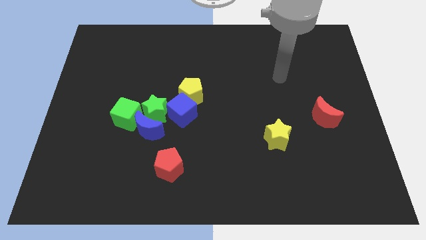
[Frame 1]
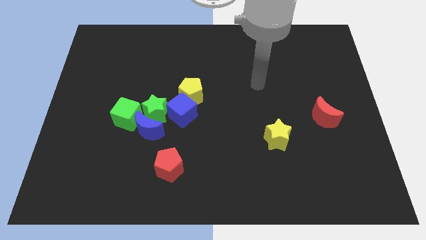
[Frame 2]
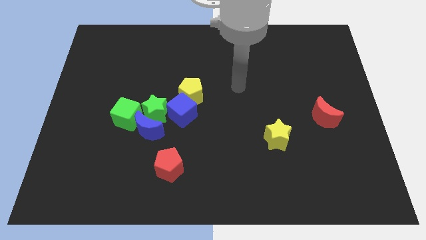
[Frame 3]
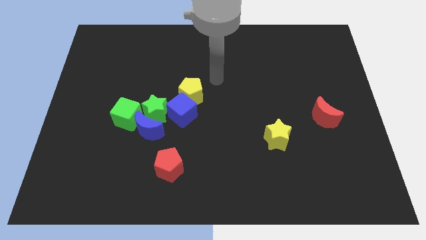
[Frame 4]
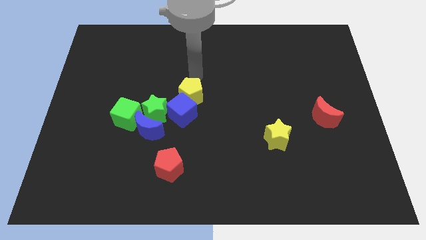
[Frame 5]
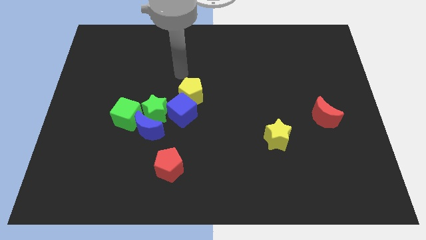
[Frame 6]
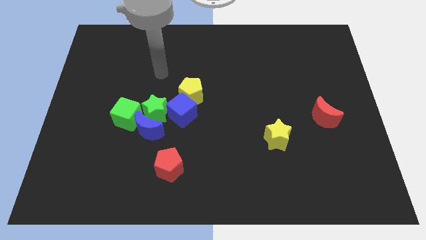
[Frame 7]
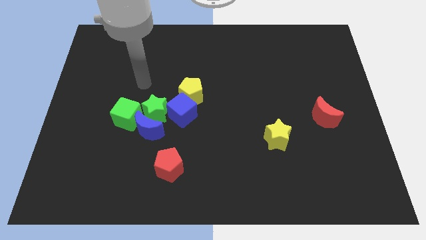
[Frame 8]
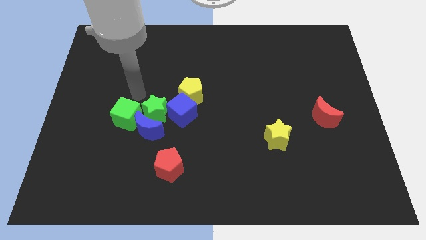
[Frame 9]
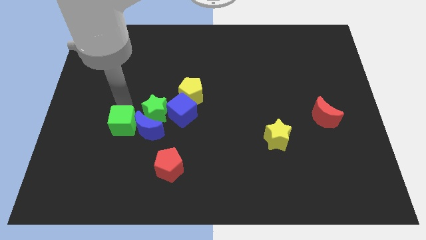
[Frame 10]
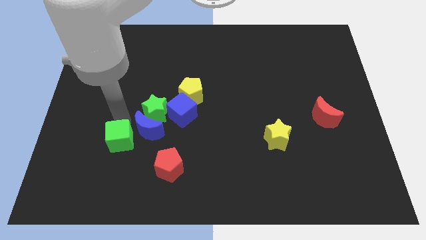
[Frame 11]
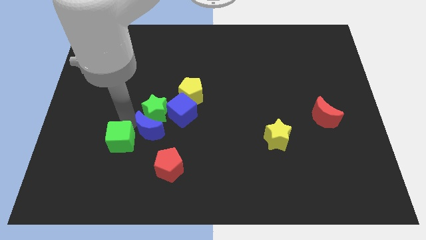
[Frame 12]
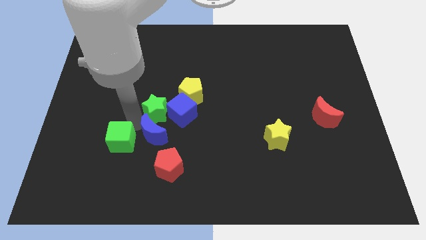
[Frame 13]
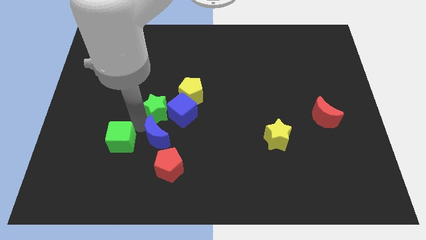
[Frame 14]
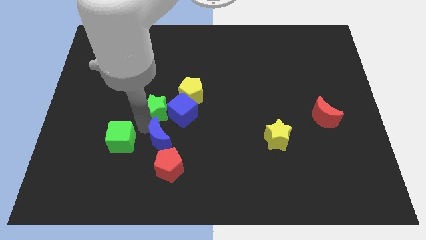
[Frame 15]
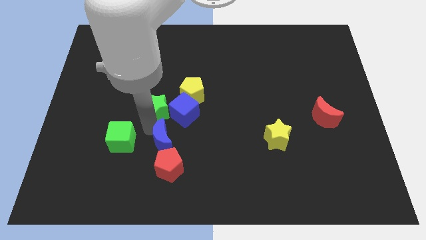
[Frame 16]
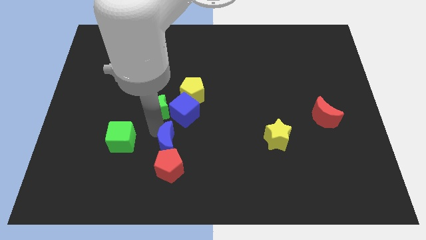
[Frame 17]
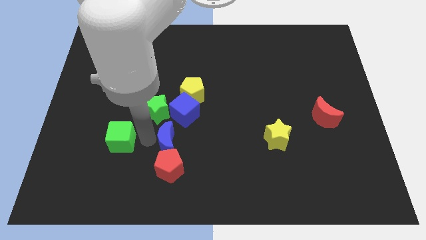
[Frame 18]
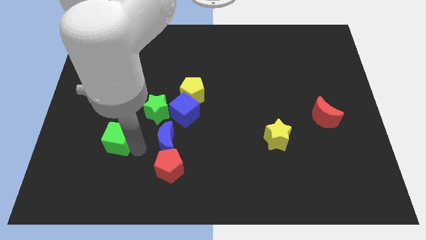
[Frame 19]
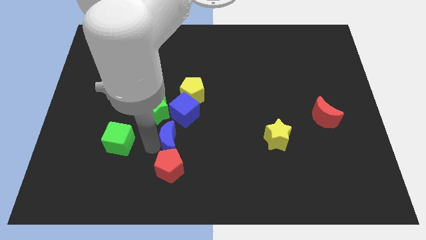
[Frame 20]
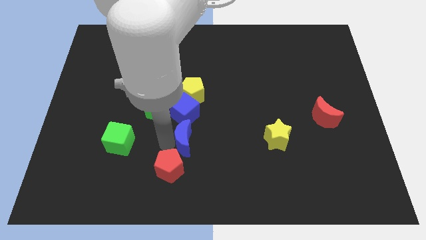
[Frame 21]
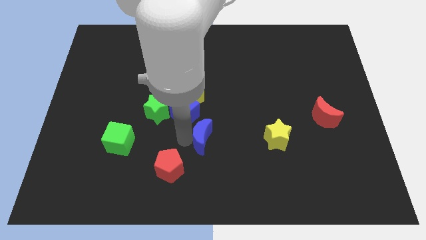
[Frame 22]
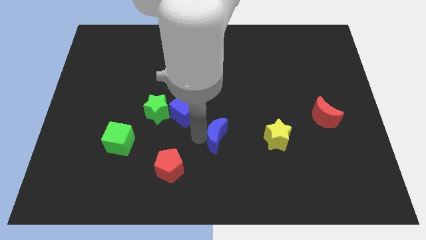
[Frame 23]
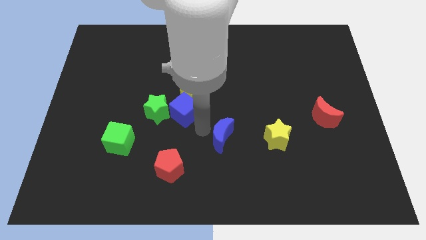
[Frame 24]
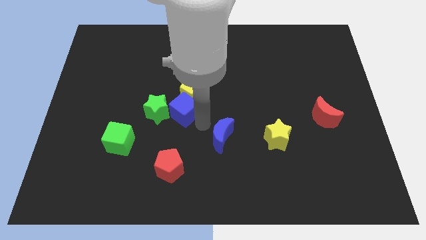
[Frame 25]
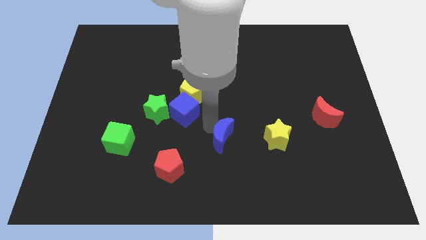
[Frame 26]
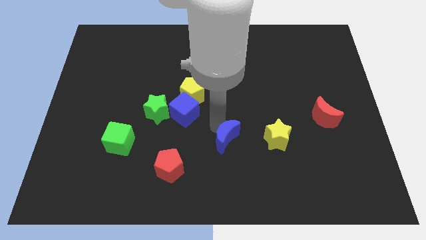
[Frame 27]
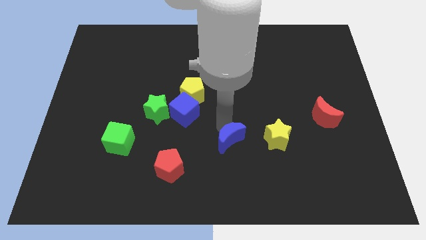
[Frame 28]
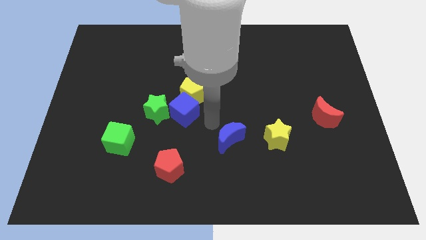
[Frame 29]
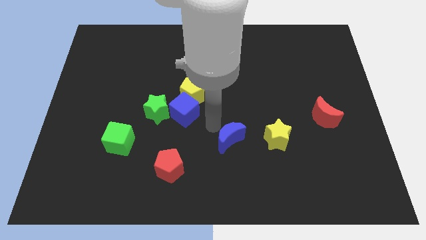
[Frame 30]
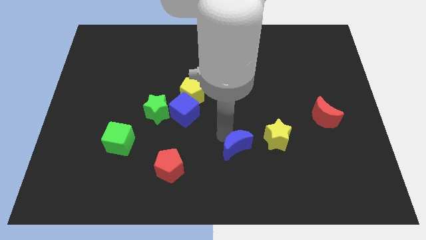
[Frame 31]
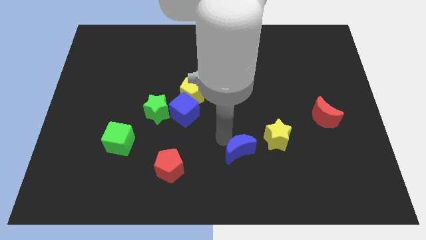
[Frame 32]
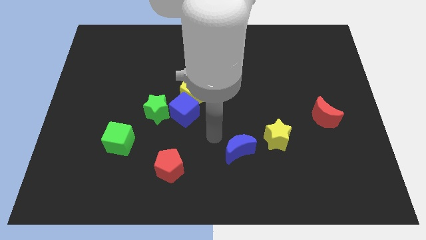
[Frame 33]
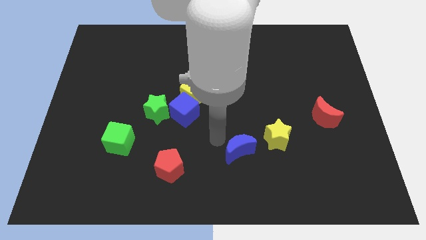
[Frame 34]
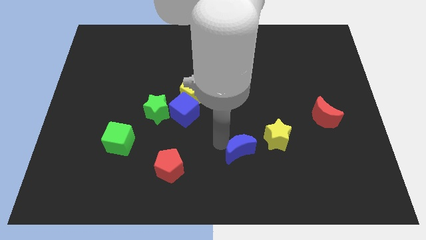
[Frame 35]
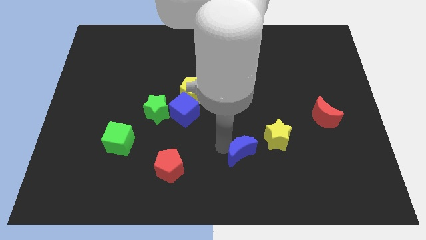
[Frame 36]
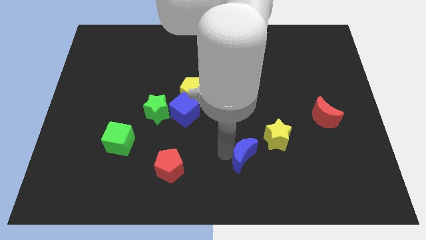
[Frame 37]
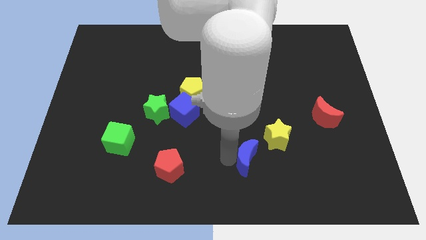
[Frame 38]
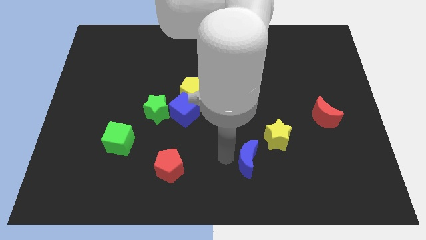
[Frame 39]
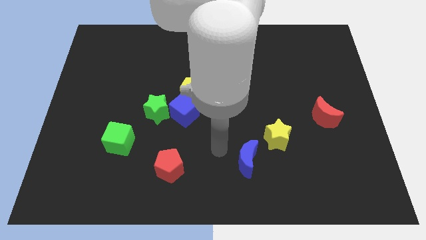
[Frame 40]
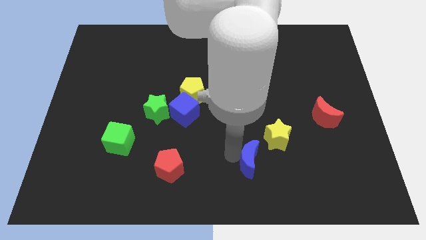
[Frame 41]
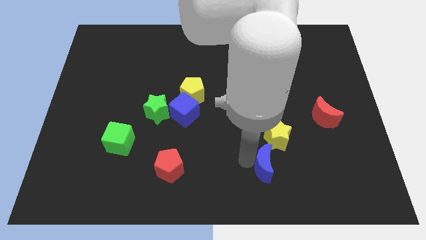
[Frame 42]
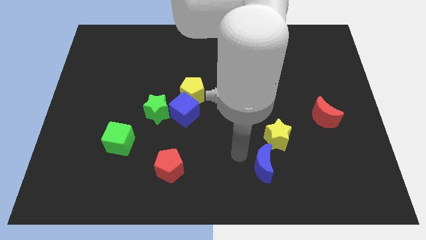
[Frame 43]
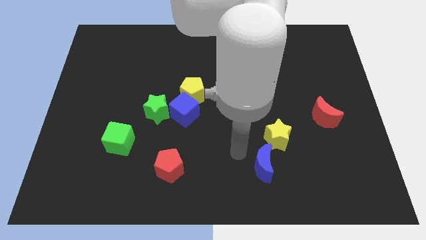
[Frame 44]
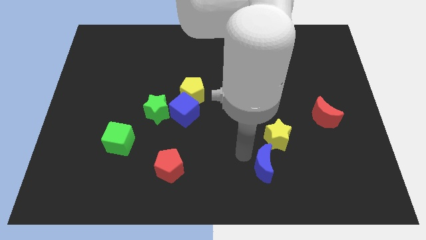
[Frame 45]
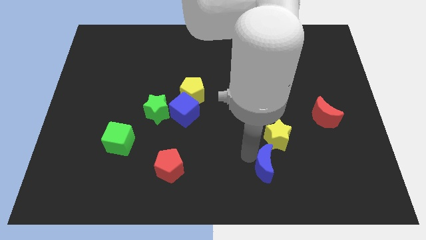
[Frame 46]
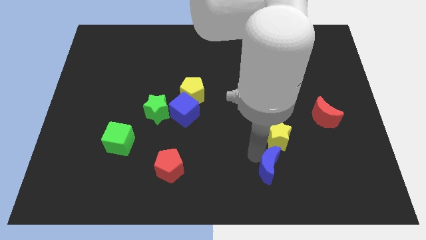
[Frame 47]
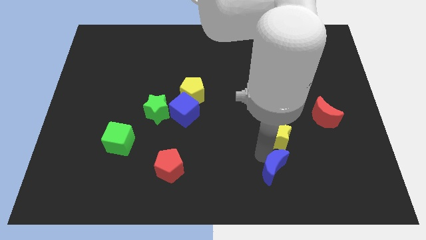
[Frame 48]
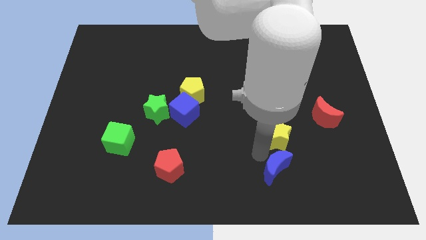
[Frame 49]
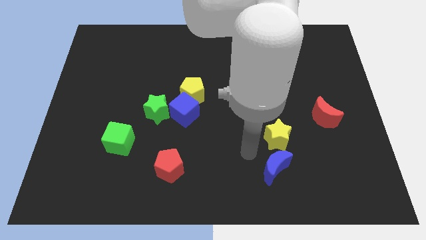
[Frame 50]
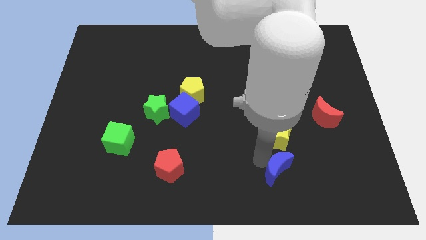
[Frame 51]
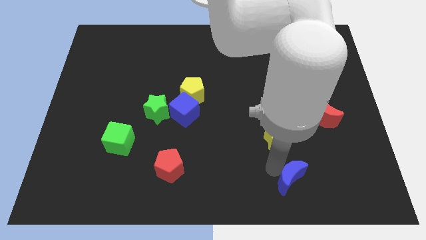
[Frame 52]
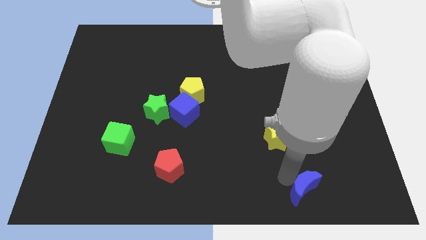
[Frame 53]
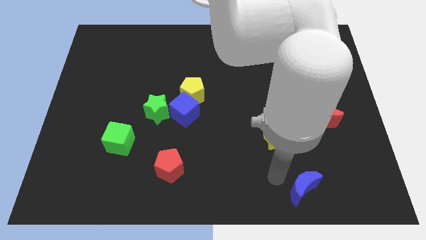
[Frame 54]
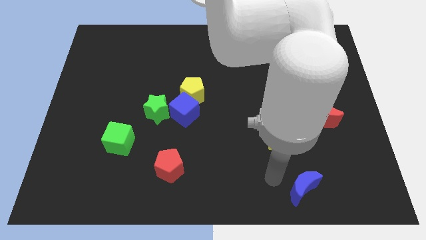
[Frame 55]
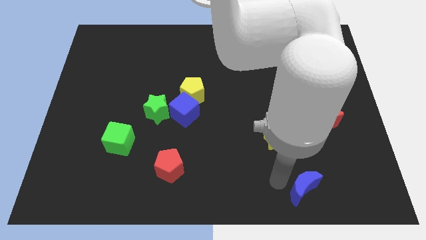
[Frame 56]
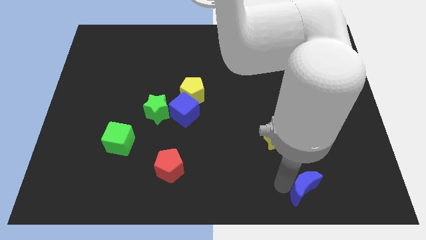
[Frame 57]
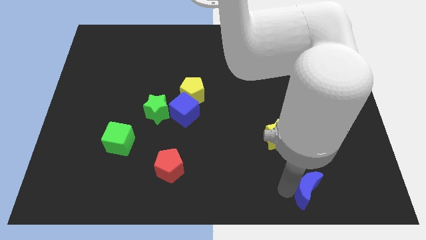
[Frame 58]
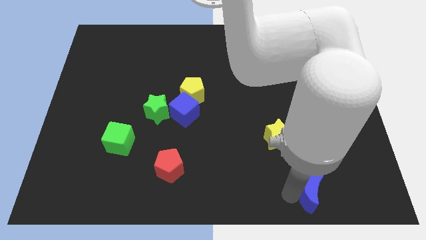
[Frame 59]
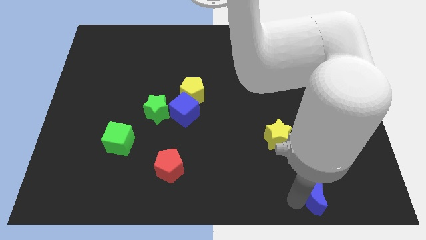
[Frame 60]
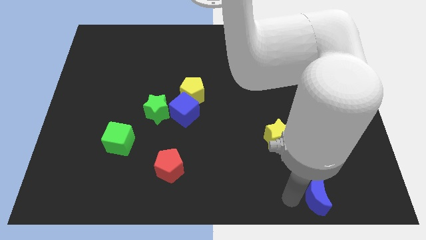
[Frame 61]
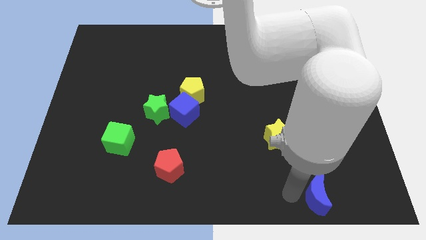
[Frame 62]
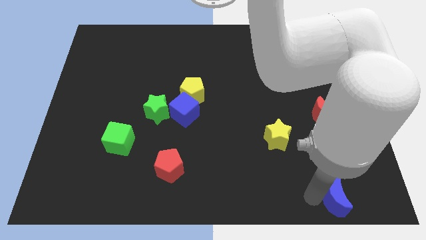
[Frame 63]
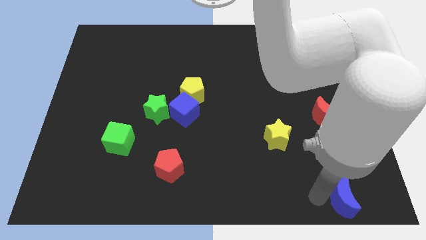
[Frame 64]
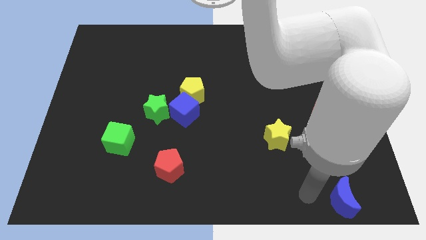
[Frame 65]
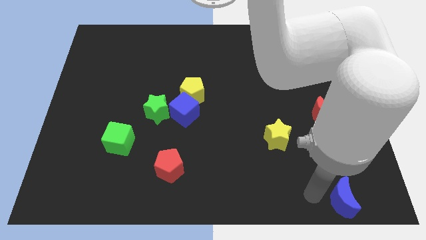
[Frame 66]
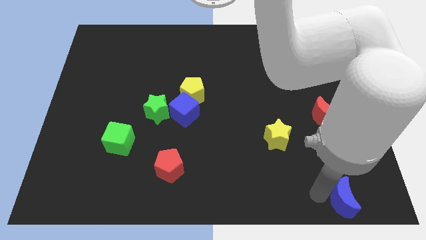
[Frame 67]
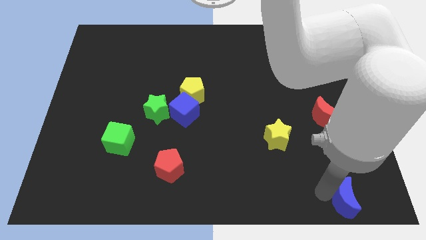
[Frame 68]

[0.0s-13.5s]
put the blue moon to the bottom right

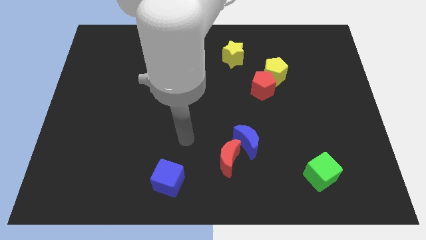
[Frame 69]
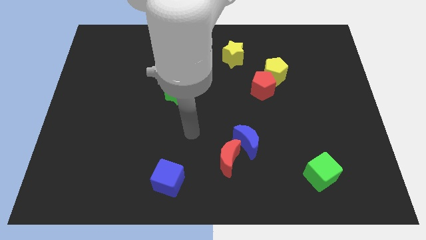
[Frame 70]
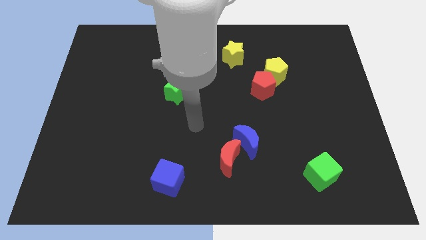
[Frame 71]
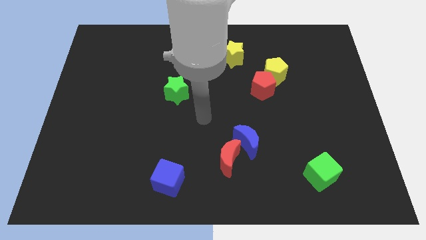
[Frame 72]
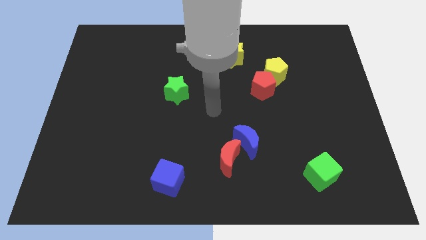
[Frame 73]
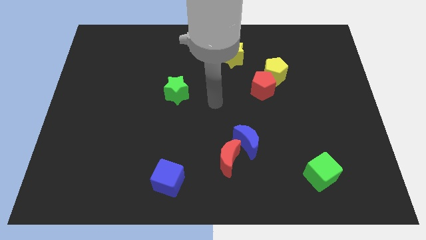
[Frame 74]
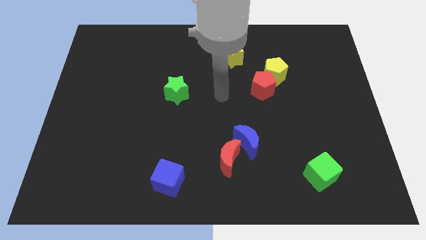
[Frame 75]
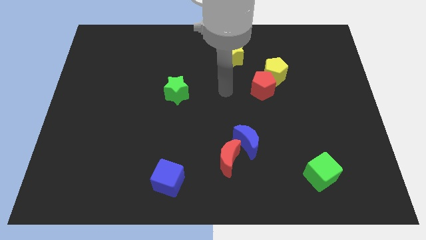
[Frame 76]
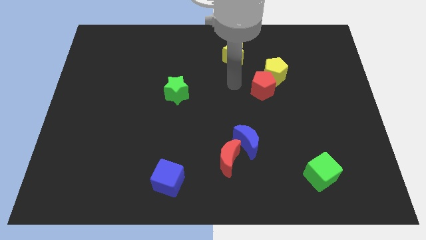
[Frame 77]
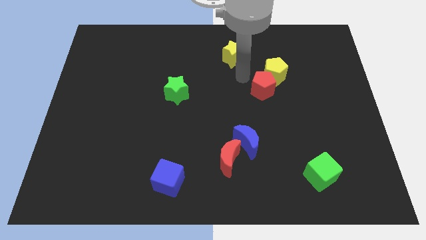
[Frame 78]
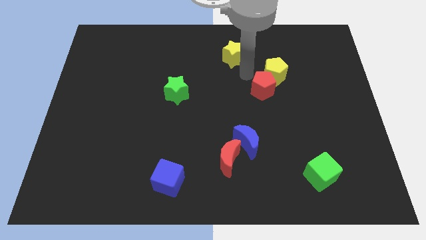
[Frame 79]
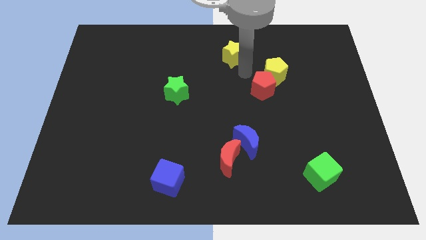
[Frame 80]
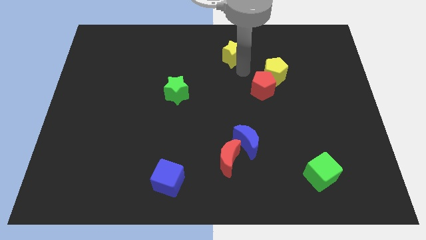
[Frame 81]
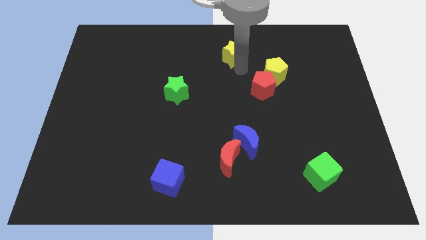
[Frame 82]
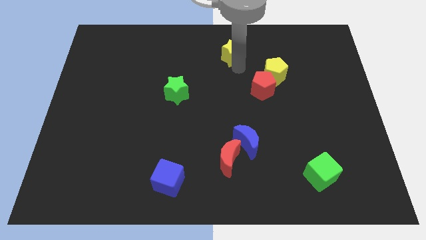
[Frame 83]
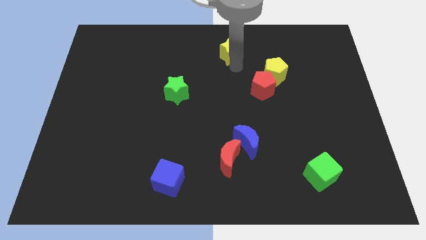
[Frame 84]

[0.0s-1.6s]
slide the yellow star to the top
